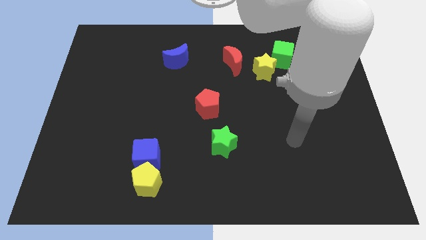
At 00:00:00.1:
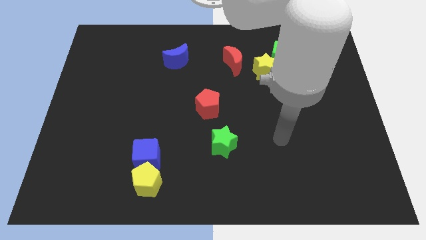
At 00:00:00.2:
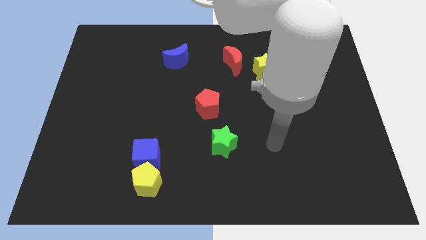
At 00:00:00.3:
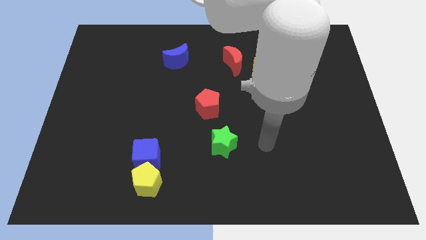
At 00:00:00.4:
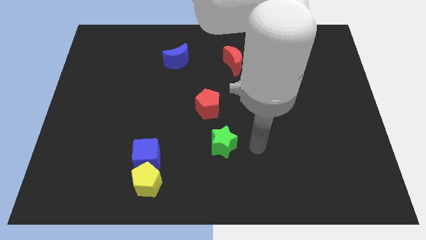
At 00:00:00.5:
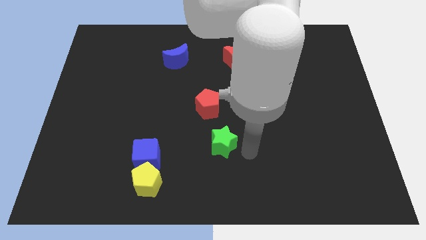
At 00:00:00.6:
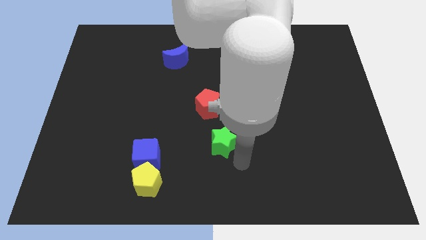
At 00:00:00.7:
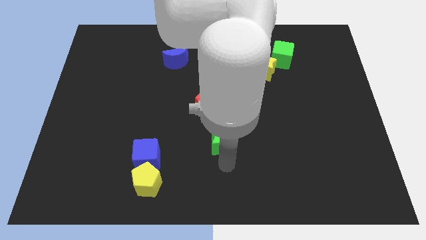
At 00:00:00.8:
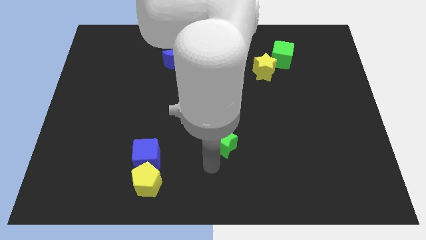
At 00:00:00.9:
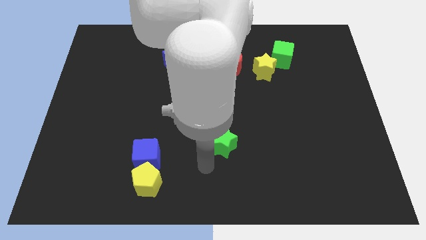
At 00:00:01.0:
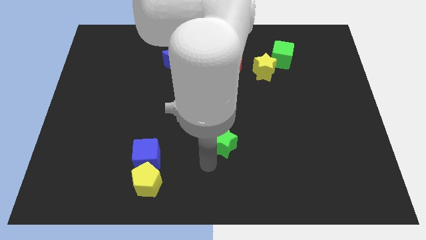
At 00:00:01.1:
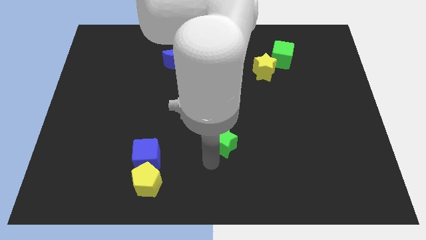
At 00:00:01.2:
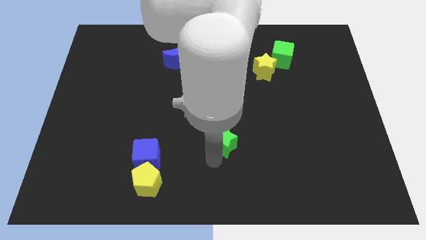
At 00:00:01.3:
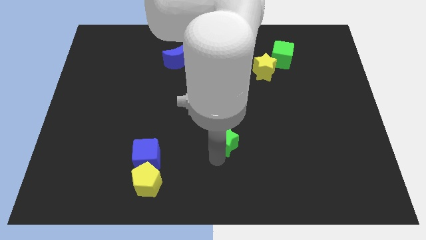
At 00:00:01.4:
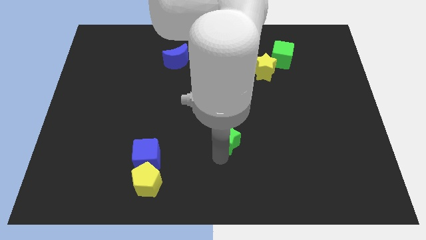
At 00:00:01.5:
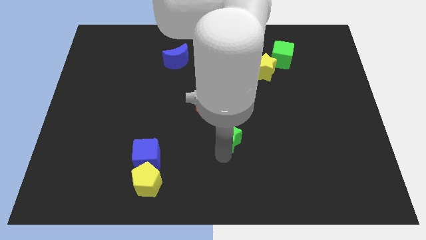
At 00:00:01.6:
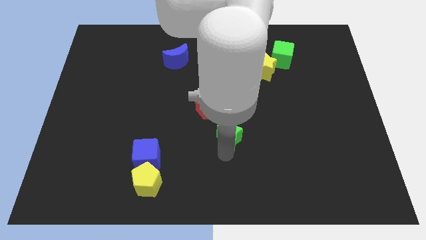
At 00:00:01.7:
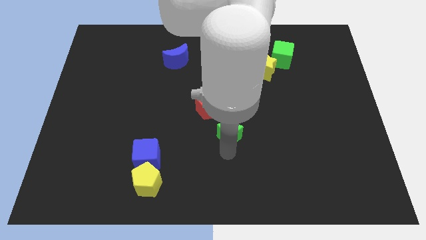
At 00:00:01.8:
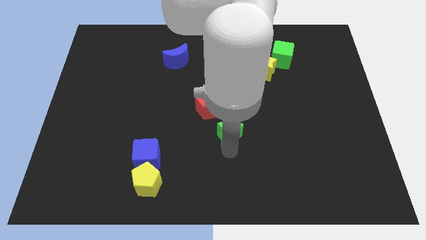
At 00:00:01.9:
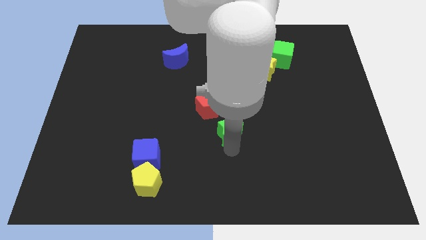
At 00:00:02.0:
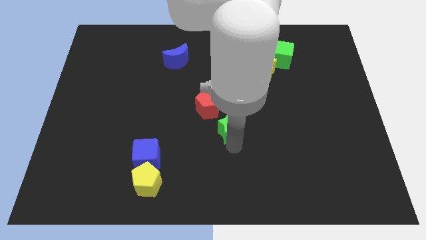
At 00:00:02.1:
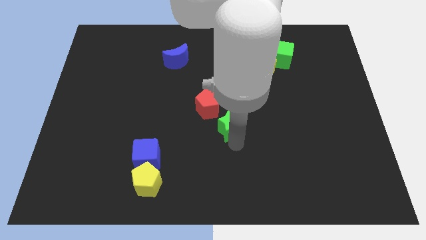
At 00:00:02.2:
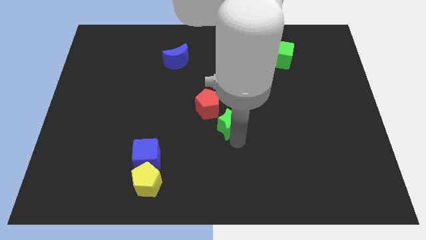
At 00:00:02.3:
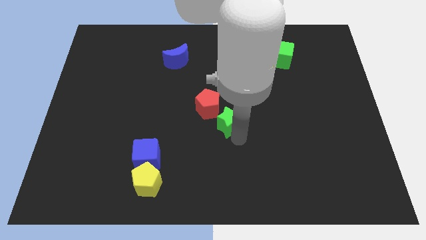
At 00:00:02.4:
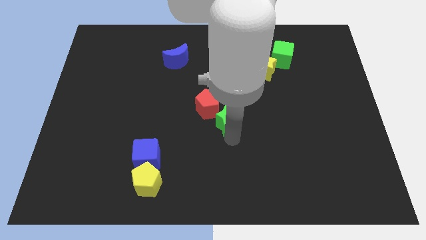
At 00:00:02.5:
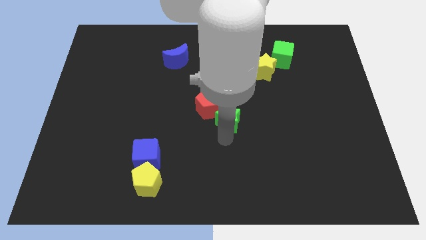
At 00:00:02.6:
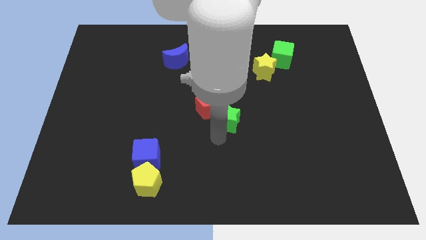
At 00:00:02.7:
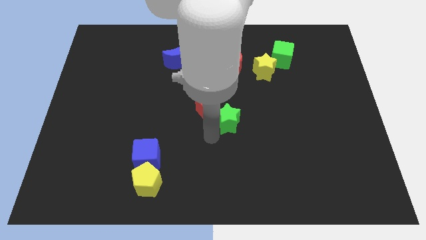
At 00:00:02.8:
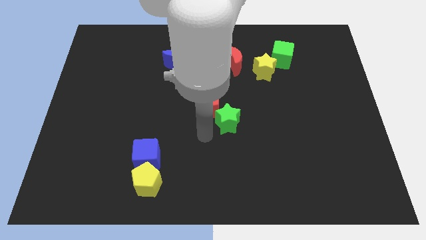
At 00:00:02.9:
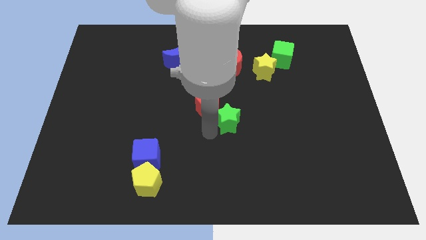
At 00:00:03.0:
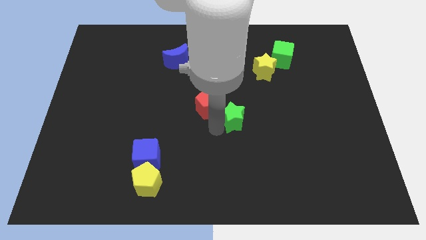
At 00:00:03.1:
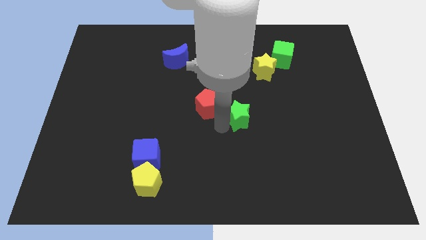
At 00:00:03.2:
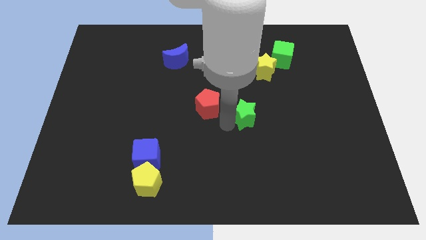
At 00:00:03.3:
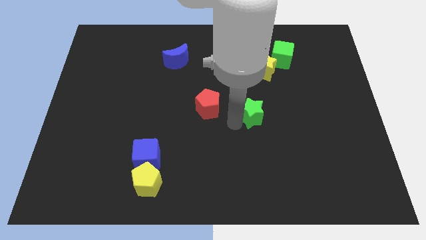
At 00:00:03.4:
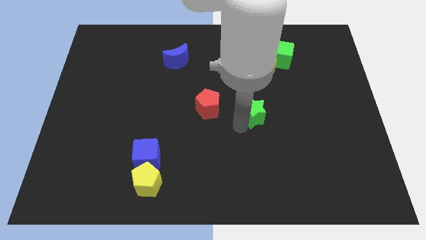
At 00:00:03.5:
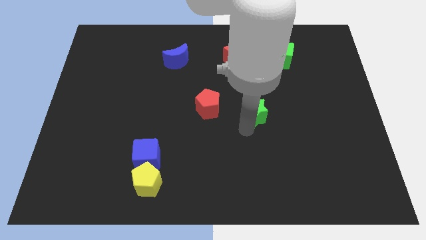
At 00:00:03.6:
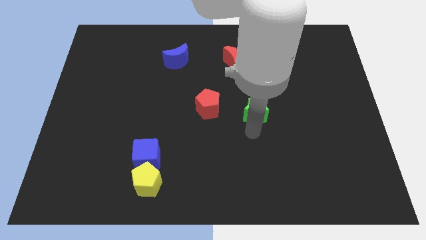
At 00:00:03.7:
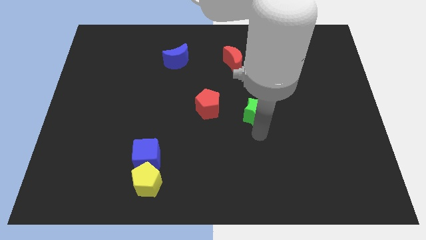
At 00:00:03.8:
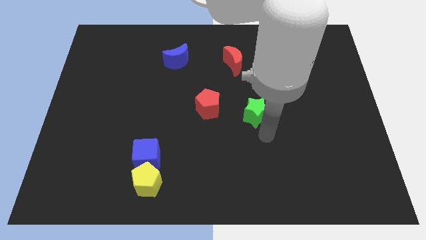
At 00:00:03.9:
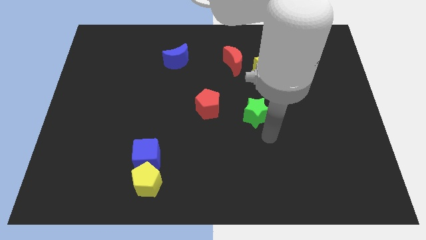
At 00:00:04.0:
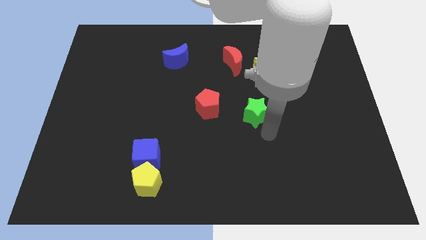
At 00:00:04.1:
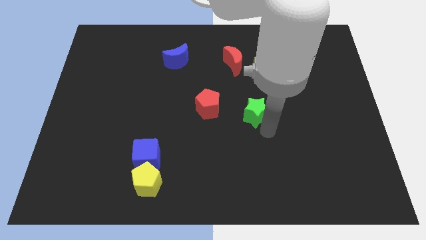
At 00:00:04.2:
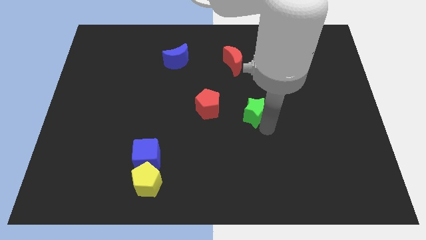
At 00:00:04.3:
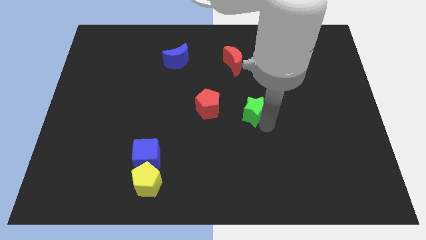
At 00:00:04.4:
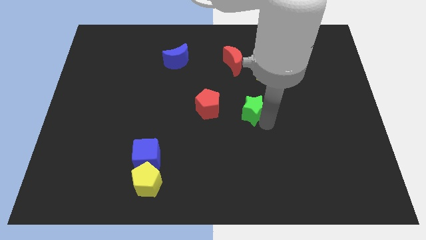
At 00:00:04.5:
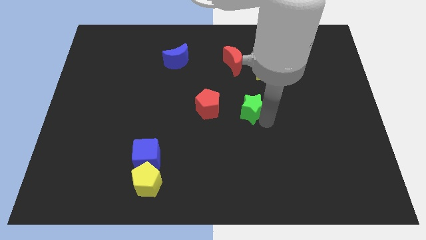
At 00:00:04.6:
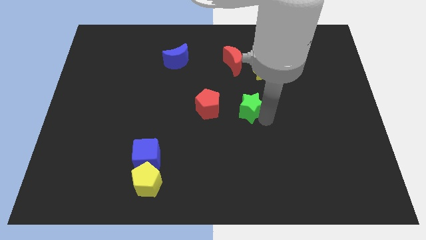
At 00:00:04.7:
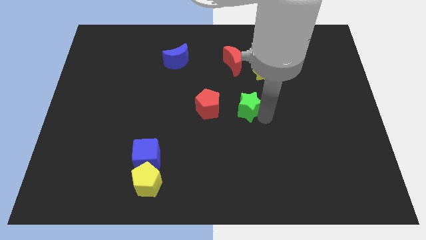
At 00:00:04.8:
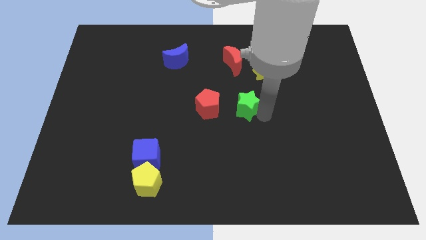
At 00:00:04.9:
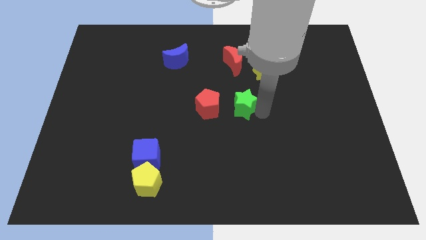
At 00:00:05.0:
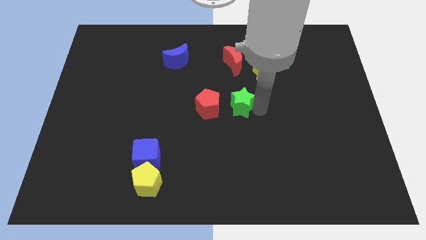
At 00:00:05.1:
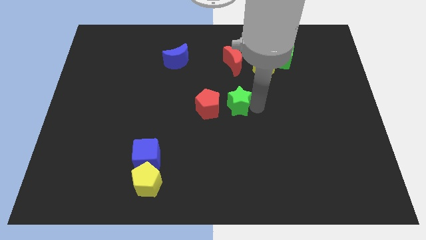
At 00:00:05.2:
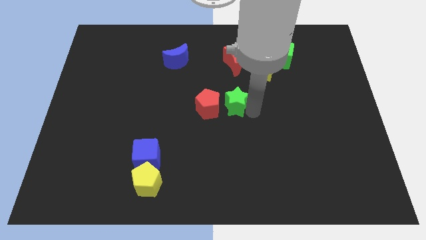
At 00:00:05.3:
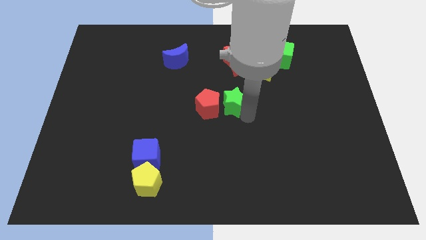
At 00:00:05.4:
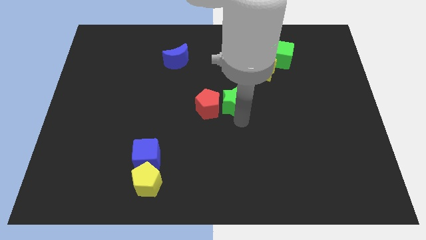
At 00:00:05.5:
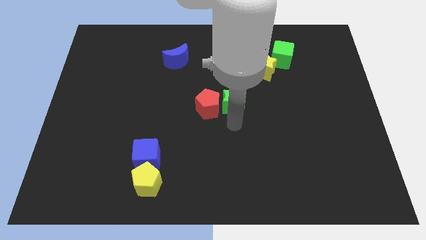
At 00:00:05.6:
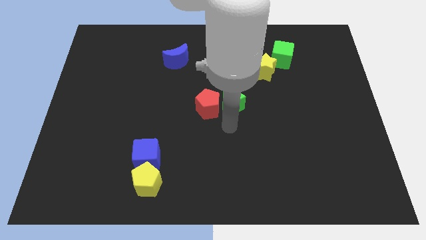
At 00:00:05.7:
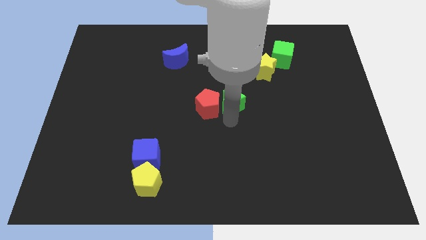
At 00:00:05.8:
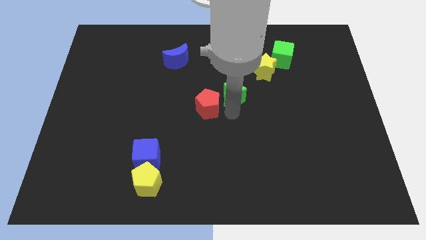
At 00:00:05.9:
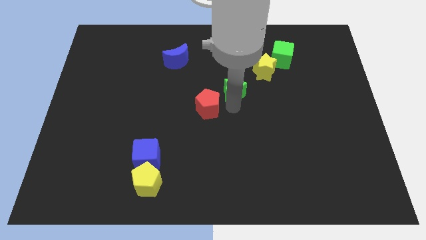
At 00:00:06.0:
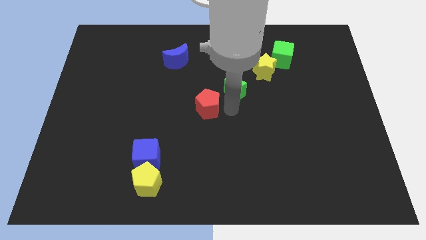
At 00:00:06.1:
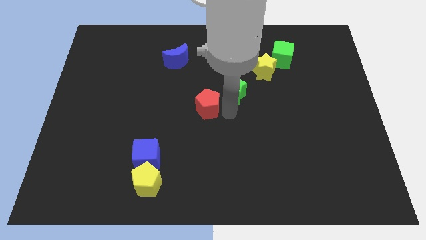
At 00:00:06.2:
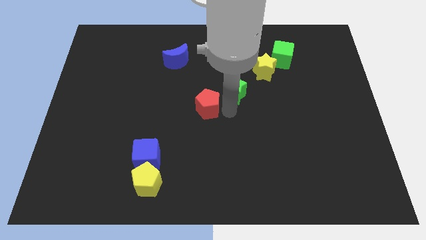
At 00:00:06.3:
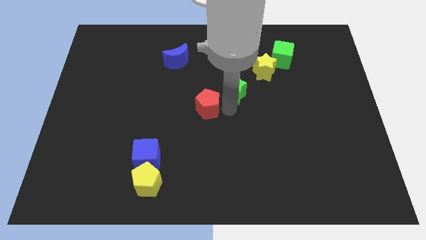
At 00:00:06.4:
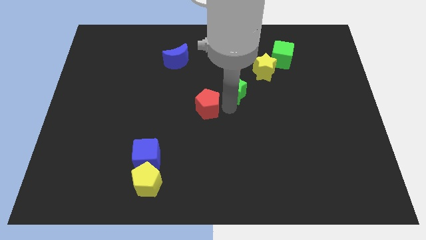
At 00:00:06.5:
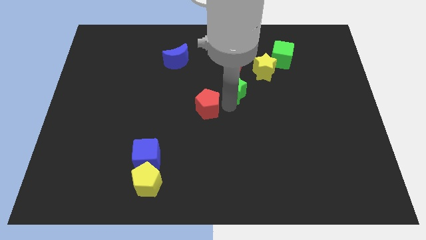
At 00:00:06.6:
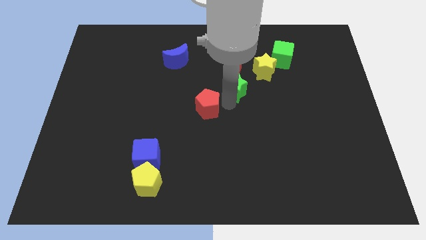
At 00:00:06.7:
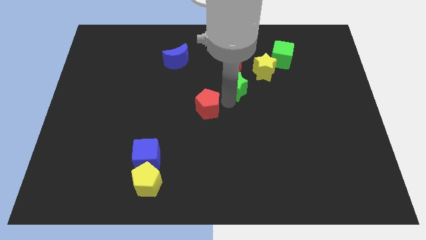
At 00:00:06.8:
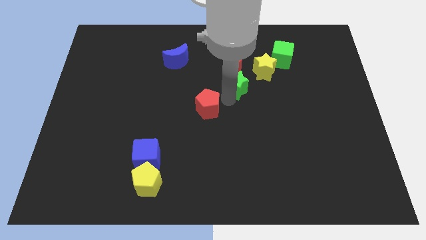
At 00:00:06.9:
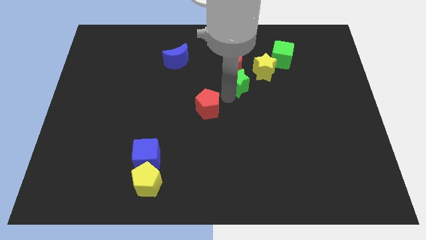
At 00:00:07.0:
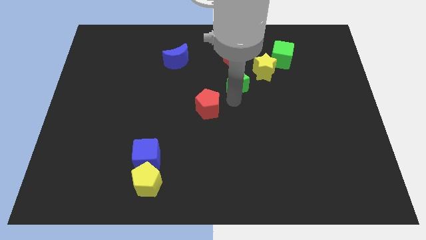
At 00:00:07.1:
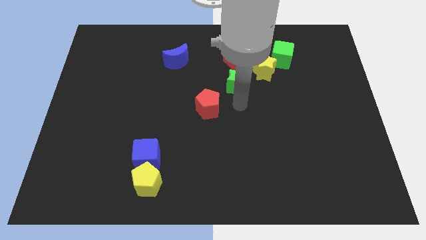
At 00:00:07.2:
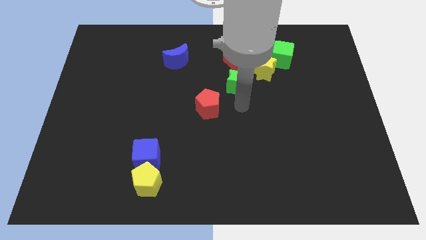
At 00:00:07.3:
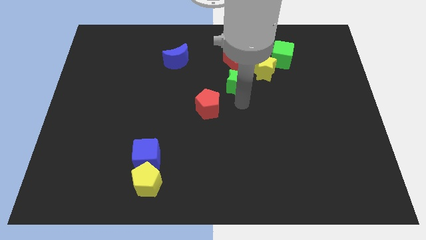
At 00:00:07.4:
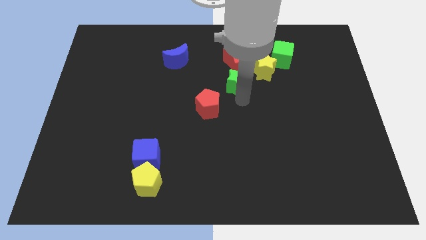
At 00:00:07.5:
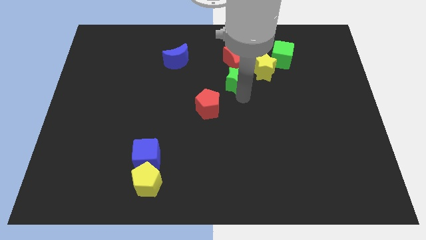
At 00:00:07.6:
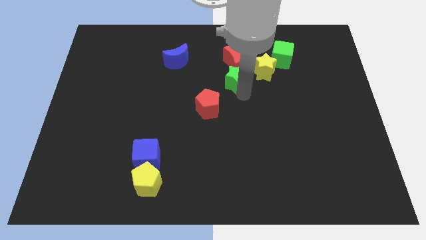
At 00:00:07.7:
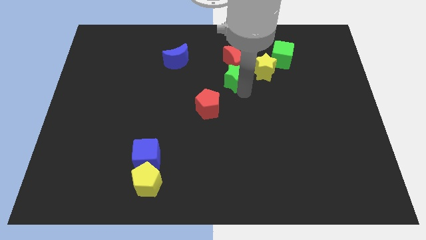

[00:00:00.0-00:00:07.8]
slide the green star next to the red moon
